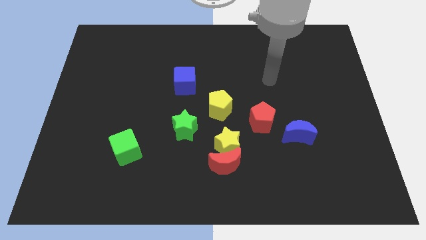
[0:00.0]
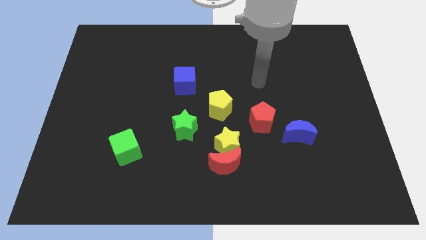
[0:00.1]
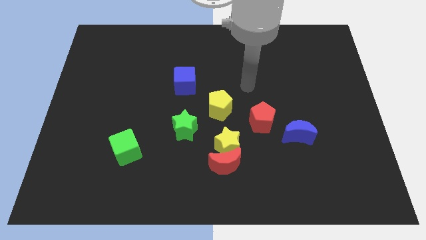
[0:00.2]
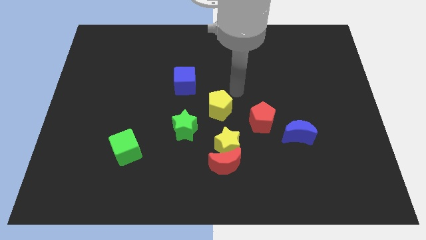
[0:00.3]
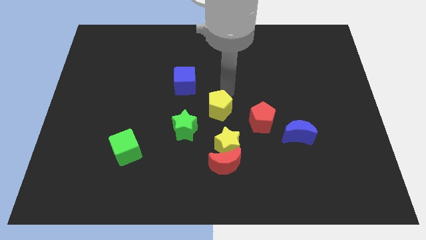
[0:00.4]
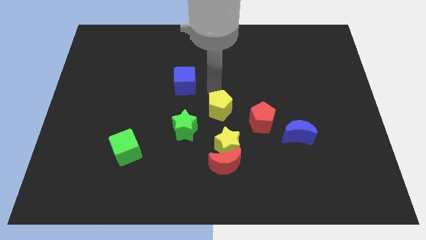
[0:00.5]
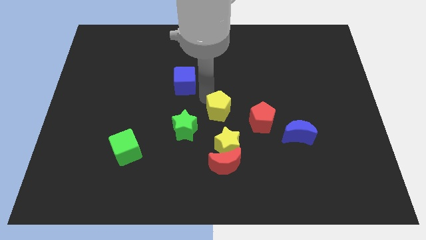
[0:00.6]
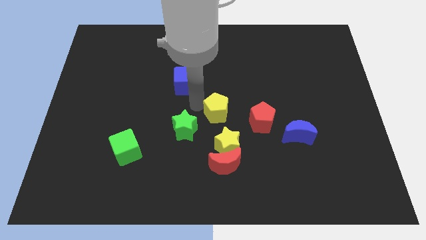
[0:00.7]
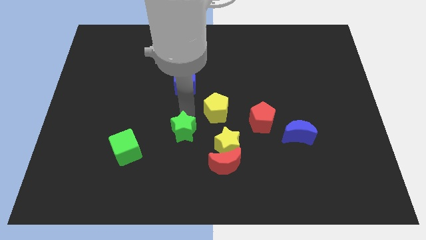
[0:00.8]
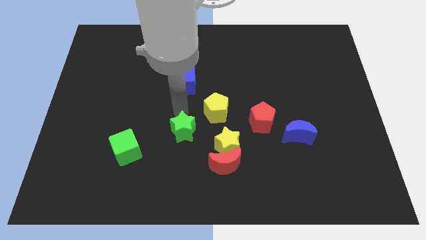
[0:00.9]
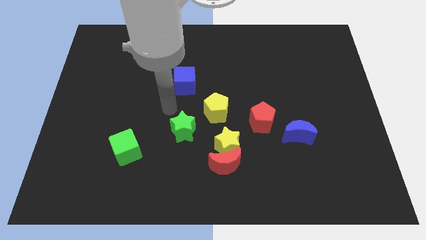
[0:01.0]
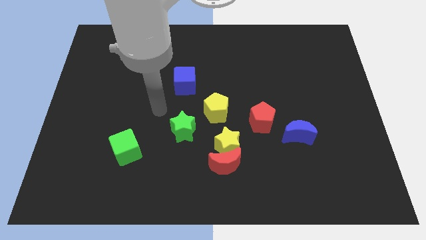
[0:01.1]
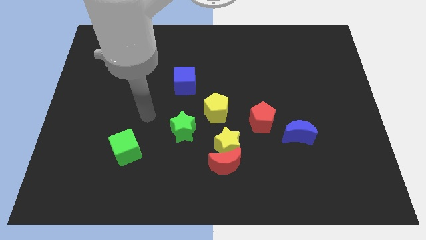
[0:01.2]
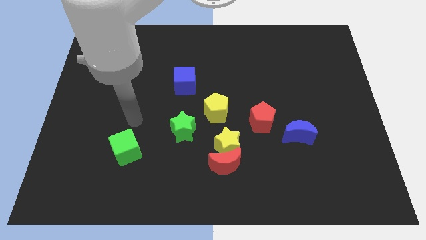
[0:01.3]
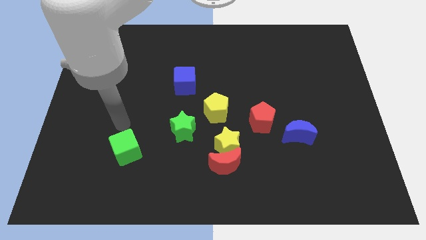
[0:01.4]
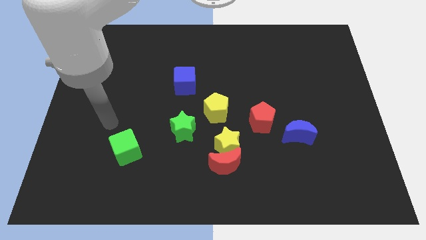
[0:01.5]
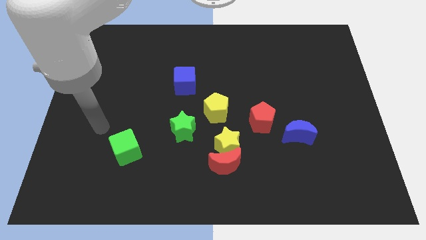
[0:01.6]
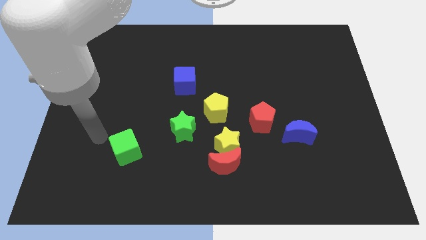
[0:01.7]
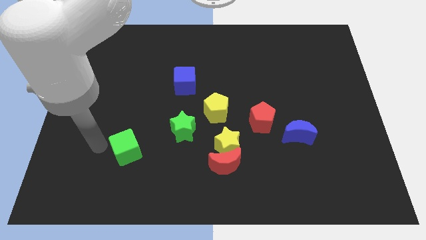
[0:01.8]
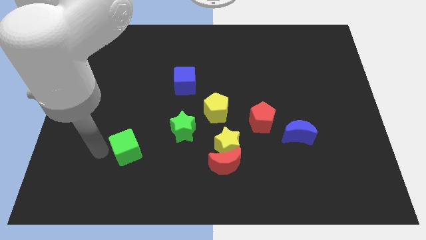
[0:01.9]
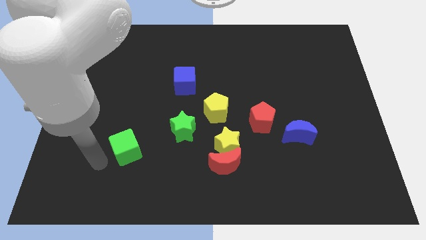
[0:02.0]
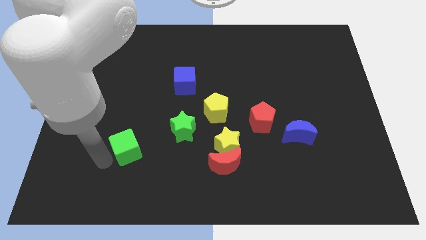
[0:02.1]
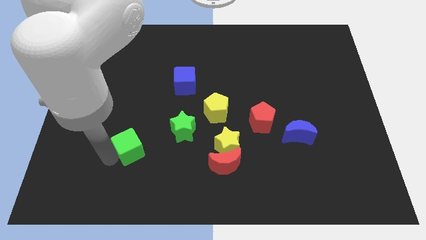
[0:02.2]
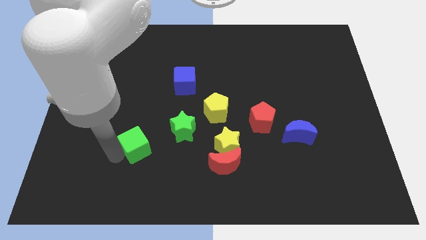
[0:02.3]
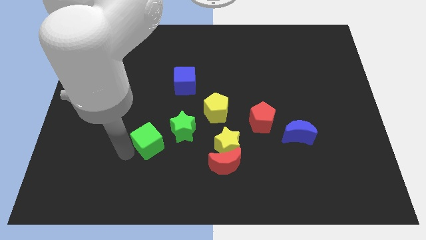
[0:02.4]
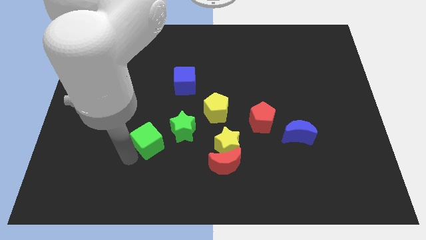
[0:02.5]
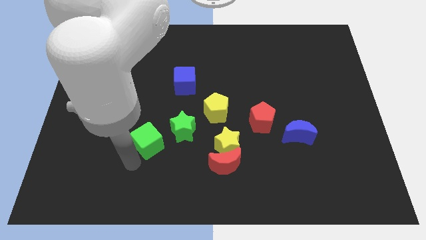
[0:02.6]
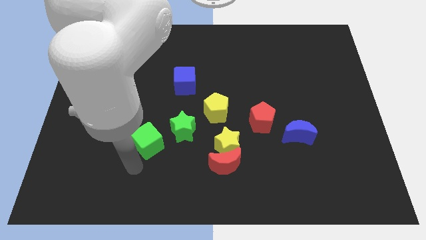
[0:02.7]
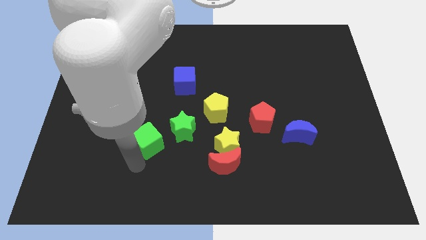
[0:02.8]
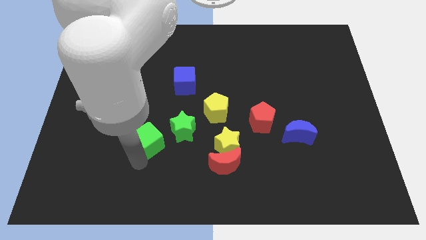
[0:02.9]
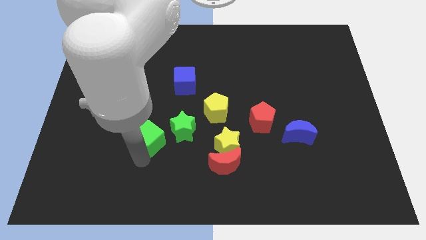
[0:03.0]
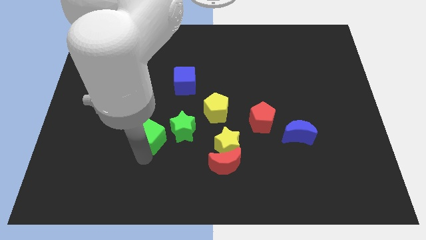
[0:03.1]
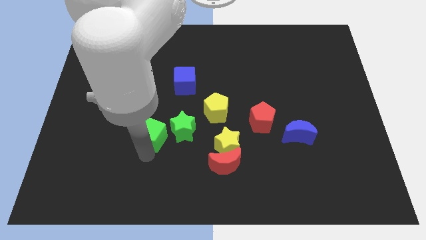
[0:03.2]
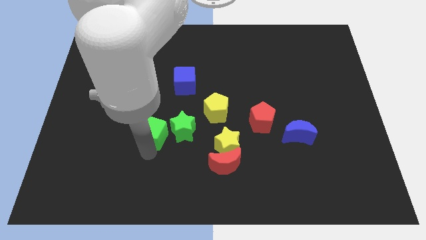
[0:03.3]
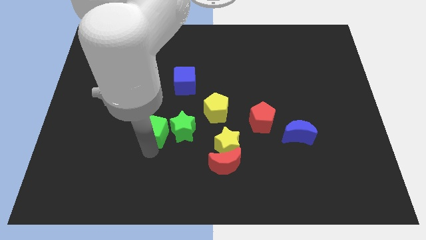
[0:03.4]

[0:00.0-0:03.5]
slightly slide the green cube up and right

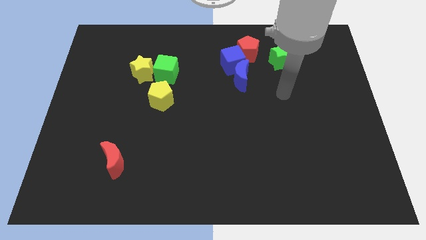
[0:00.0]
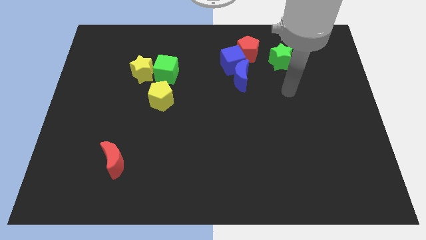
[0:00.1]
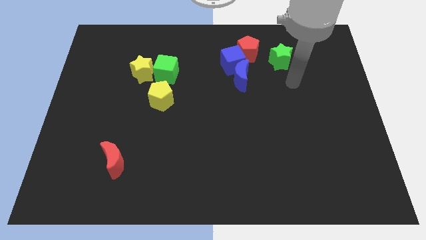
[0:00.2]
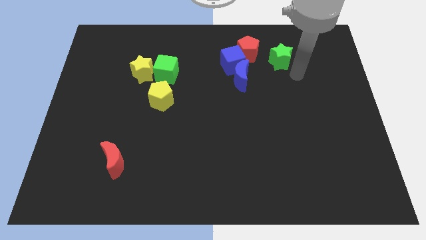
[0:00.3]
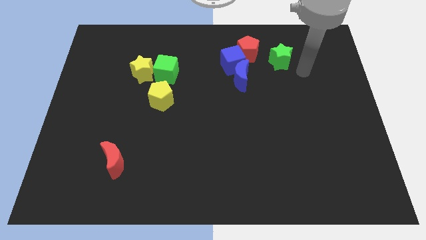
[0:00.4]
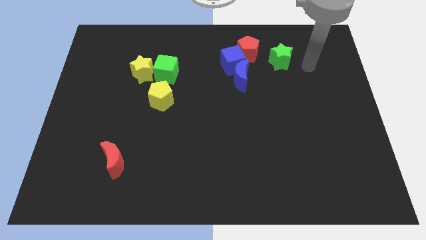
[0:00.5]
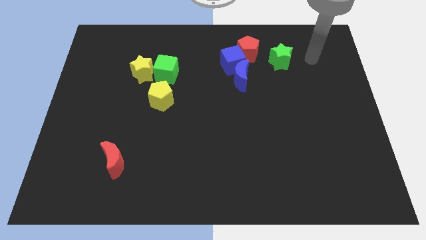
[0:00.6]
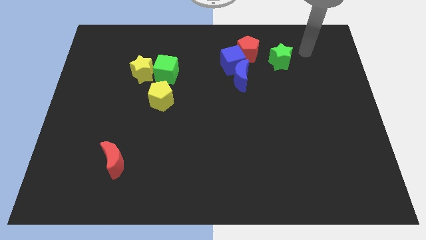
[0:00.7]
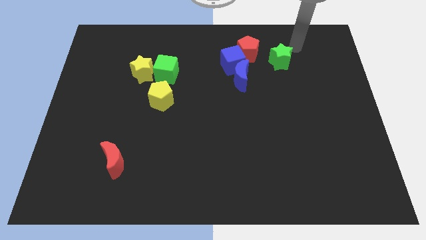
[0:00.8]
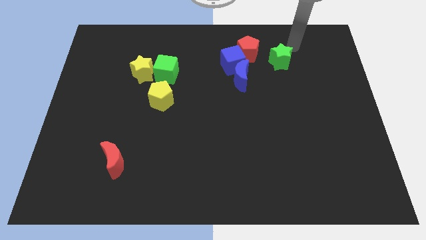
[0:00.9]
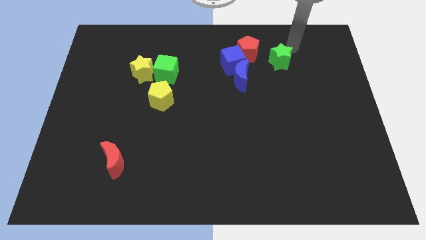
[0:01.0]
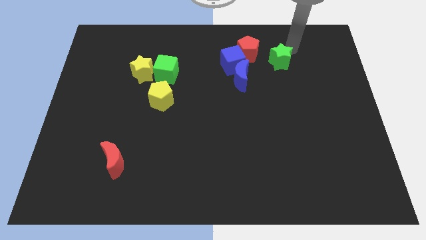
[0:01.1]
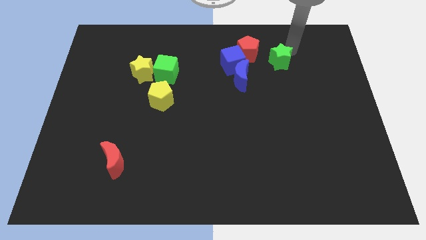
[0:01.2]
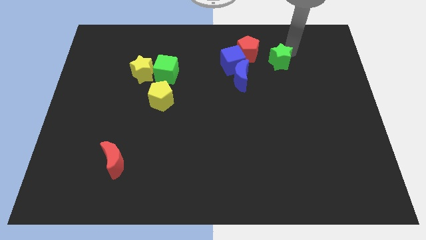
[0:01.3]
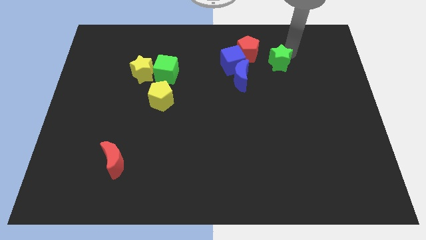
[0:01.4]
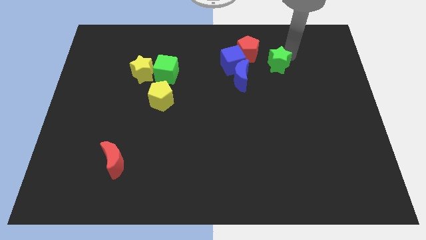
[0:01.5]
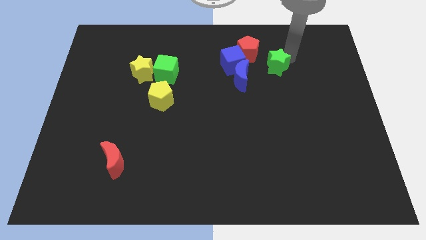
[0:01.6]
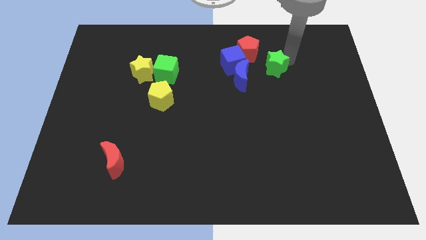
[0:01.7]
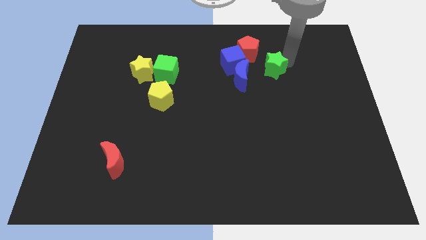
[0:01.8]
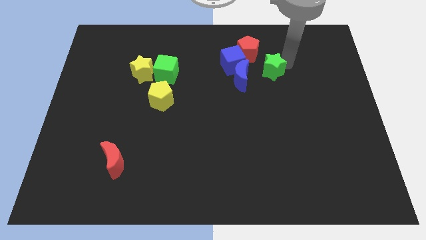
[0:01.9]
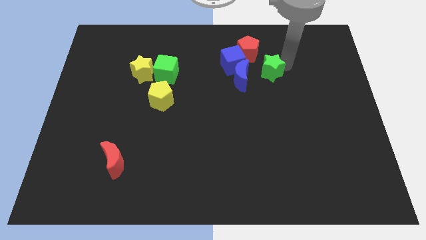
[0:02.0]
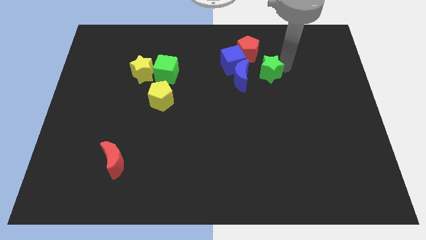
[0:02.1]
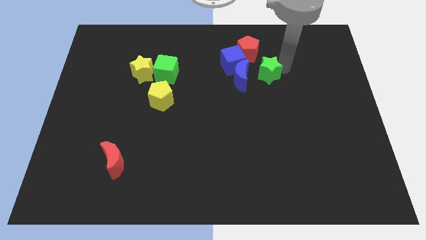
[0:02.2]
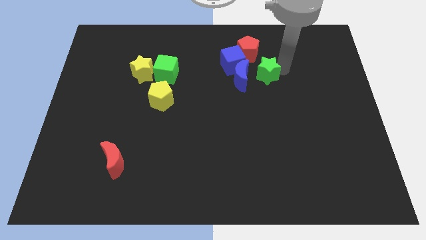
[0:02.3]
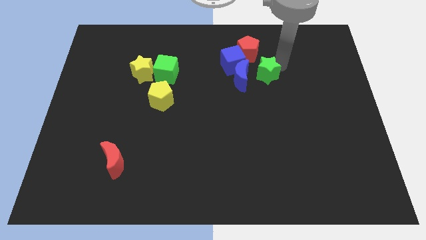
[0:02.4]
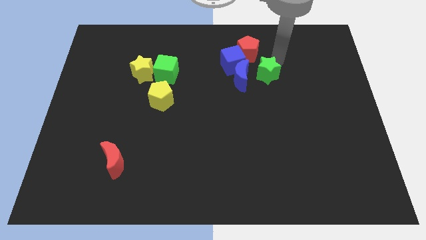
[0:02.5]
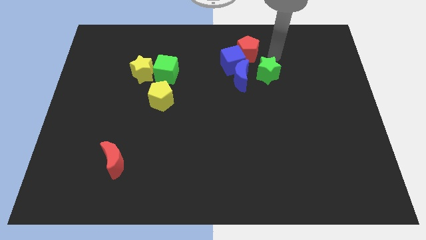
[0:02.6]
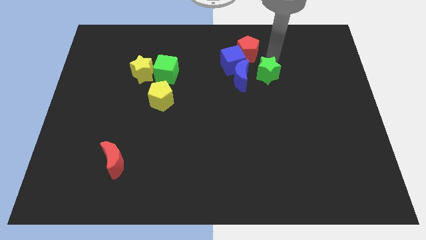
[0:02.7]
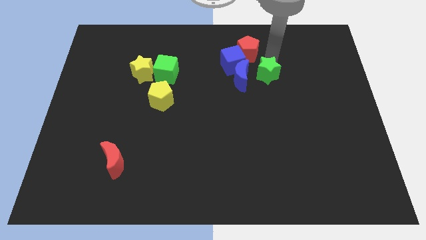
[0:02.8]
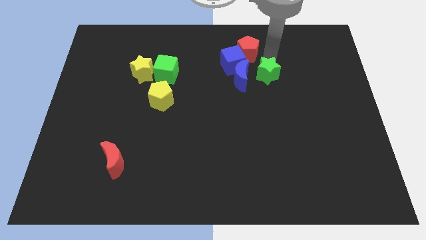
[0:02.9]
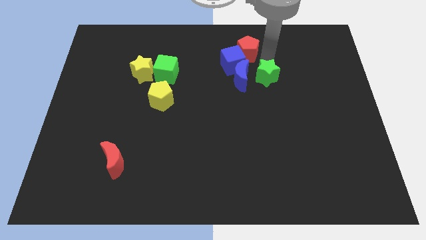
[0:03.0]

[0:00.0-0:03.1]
slide the green star downwards and then to the left somewhat

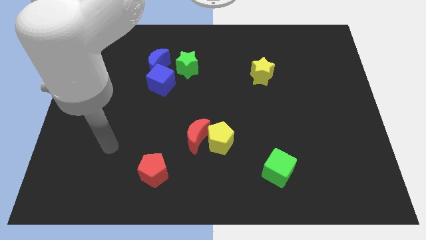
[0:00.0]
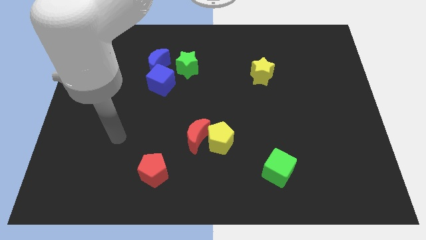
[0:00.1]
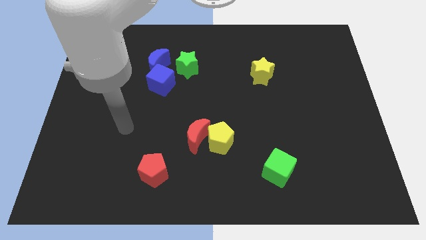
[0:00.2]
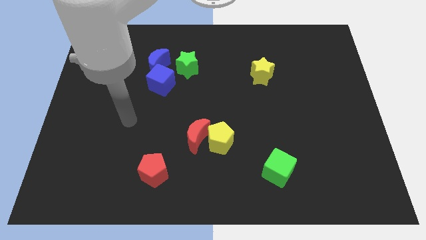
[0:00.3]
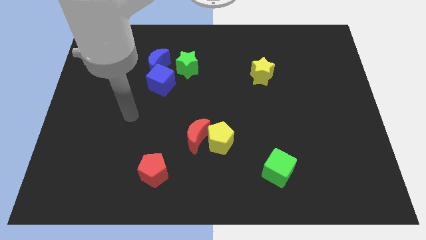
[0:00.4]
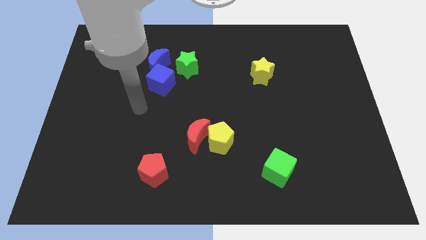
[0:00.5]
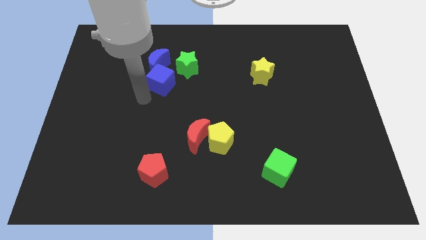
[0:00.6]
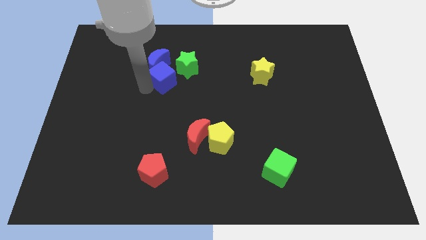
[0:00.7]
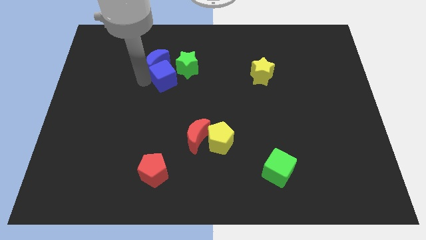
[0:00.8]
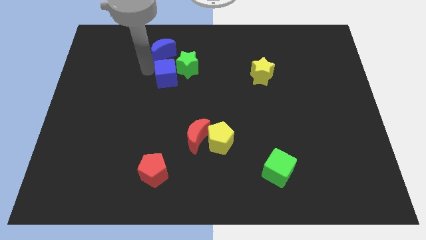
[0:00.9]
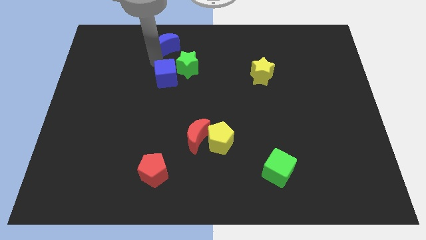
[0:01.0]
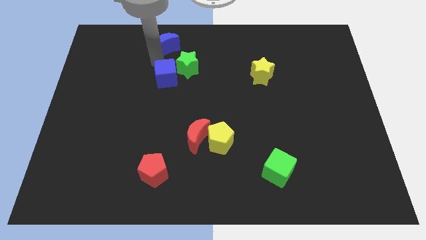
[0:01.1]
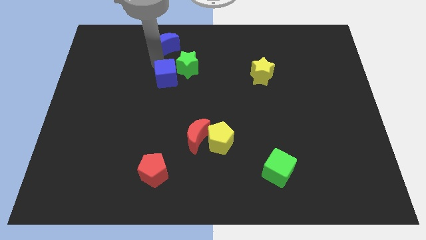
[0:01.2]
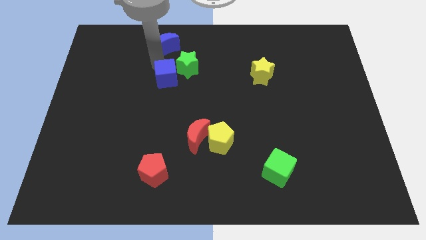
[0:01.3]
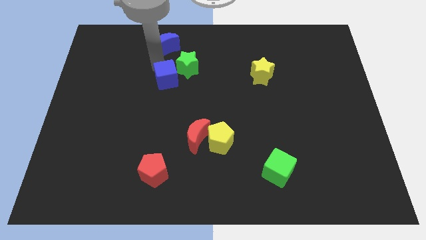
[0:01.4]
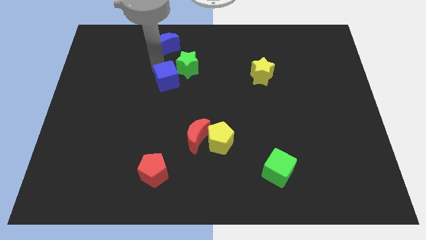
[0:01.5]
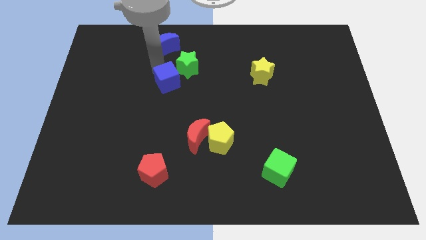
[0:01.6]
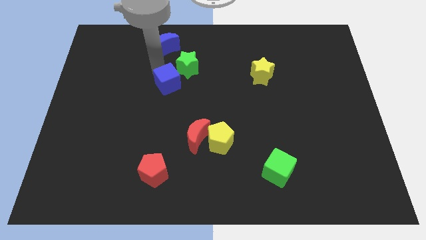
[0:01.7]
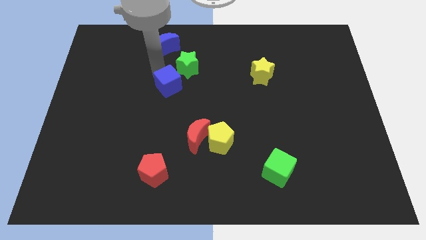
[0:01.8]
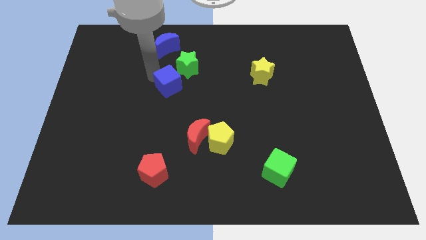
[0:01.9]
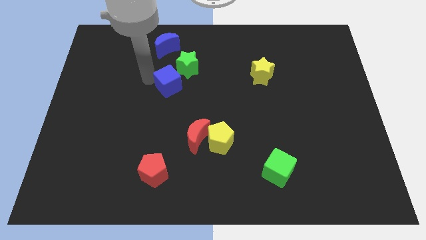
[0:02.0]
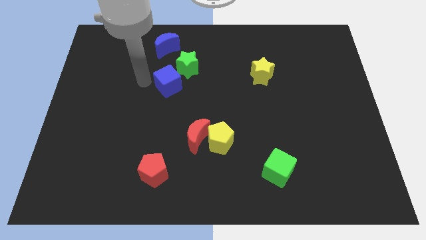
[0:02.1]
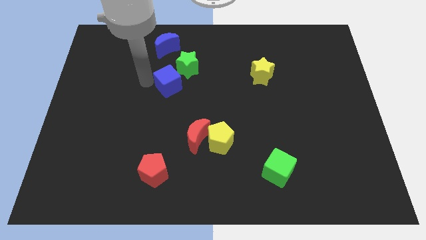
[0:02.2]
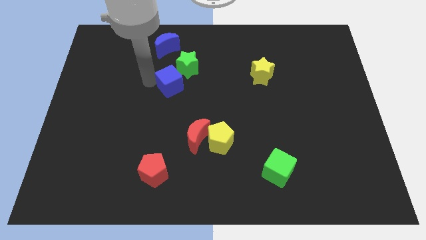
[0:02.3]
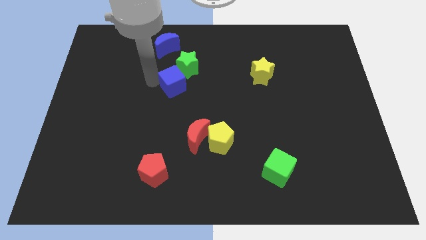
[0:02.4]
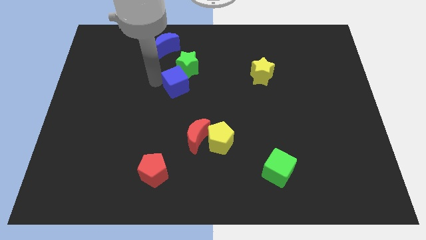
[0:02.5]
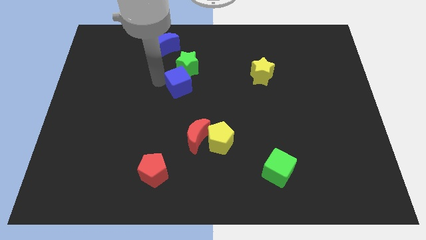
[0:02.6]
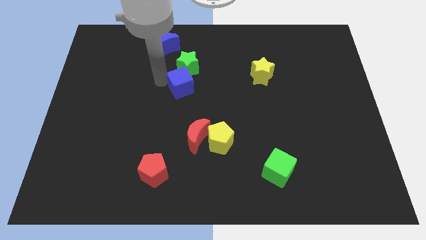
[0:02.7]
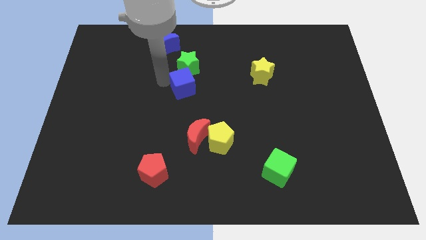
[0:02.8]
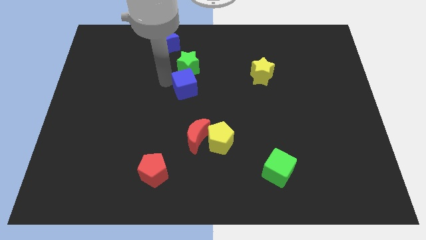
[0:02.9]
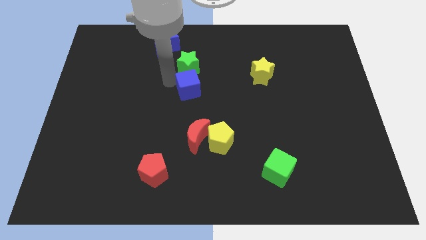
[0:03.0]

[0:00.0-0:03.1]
move the blue cube a little bit right
